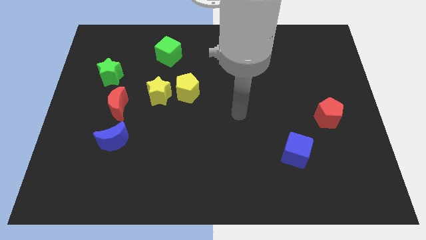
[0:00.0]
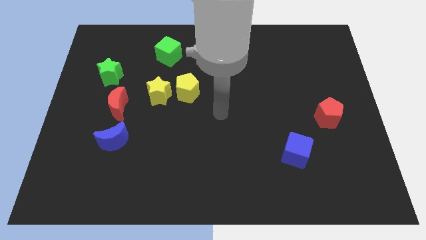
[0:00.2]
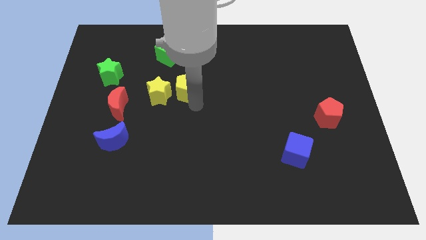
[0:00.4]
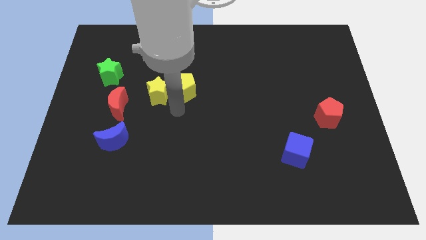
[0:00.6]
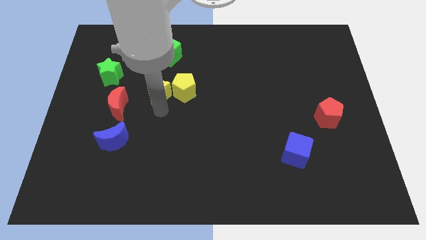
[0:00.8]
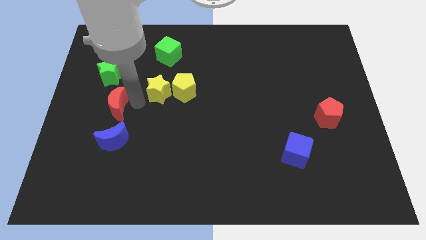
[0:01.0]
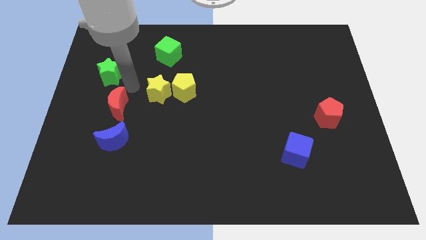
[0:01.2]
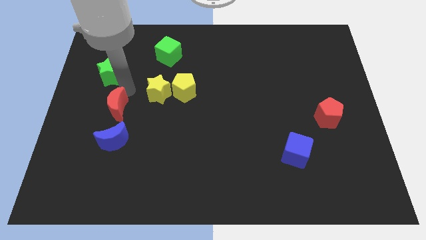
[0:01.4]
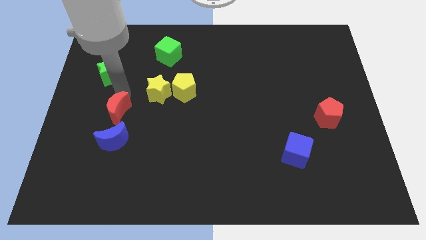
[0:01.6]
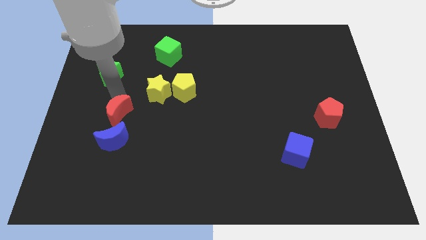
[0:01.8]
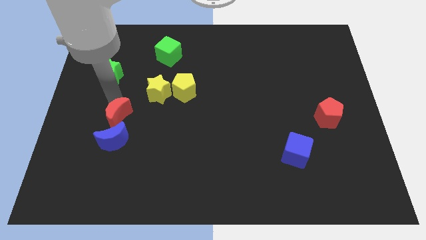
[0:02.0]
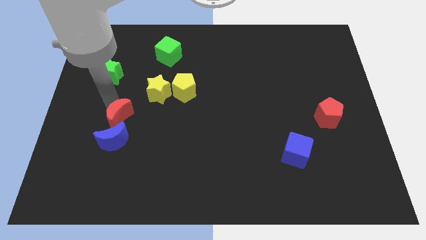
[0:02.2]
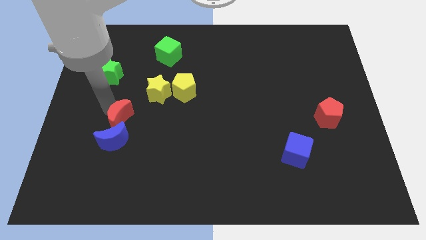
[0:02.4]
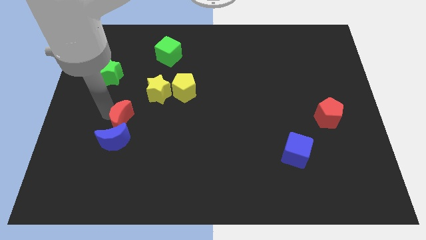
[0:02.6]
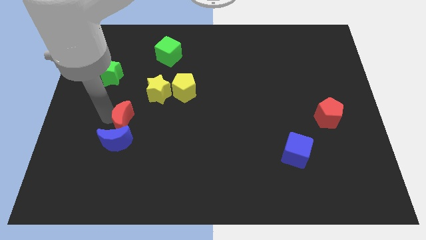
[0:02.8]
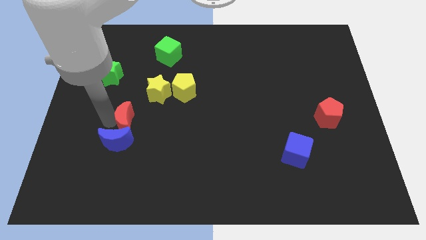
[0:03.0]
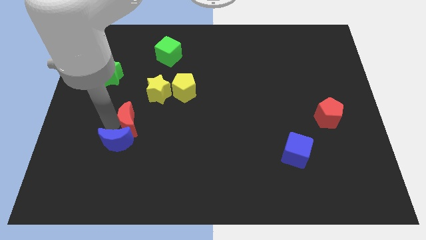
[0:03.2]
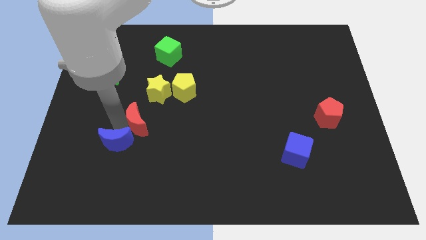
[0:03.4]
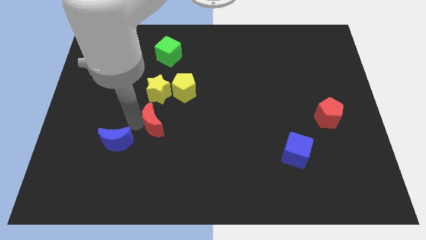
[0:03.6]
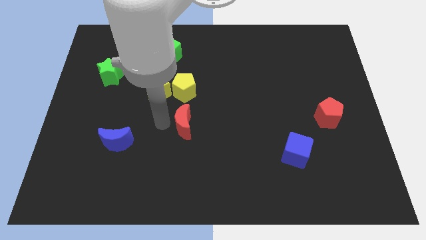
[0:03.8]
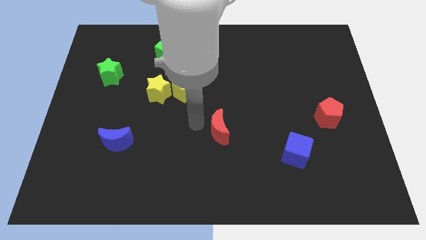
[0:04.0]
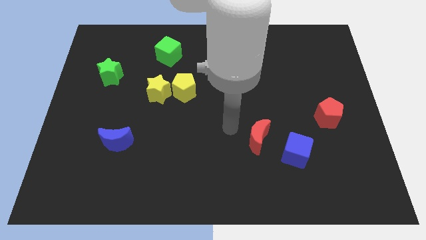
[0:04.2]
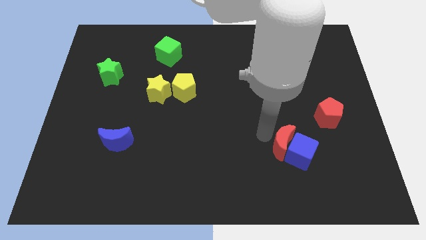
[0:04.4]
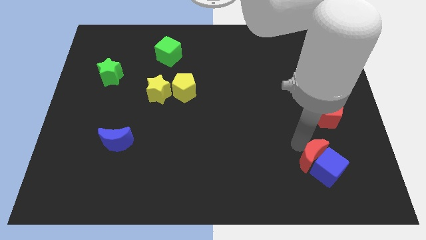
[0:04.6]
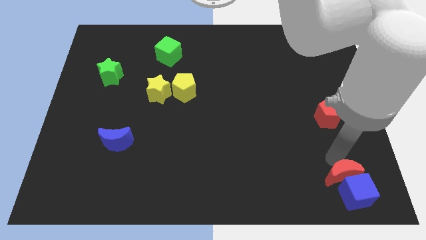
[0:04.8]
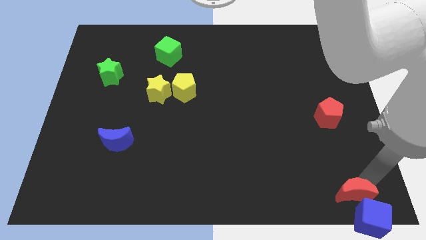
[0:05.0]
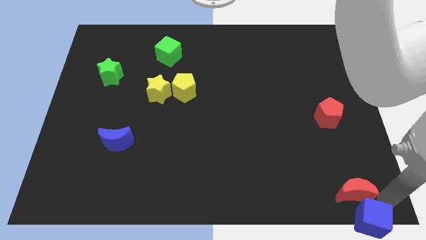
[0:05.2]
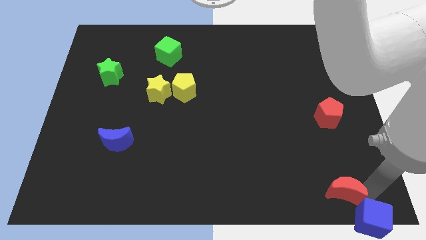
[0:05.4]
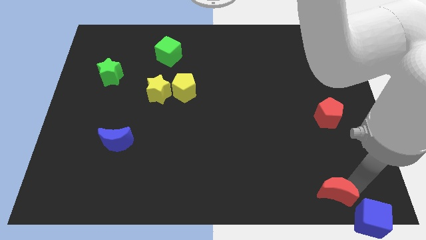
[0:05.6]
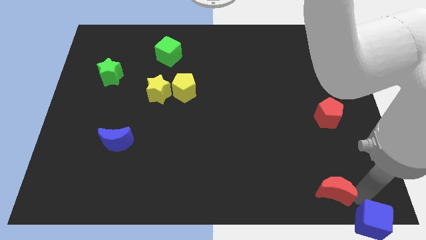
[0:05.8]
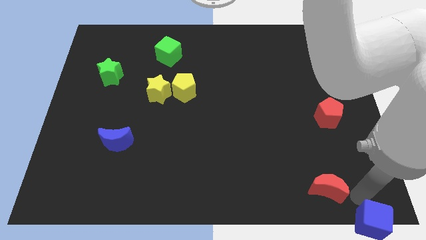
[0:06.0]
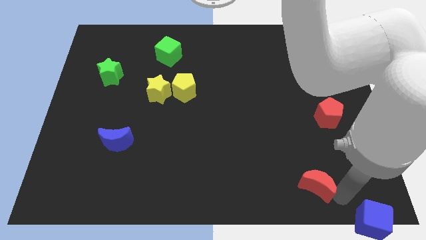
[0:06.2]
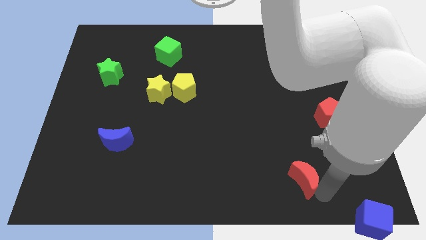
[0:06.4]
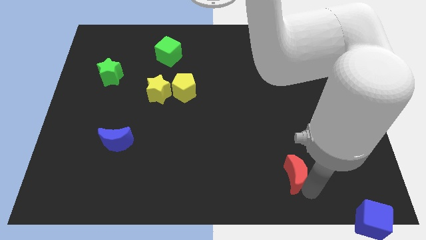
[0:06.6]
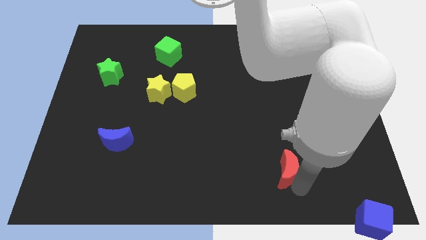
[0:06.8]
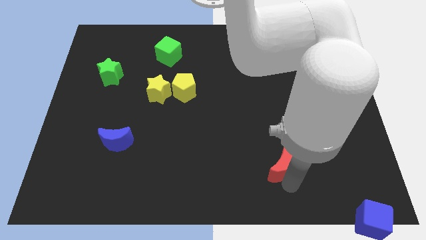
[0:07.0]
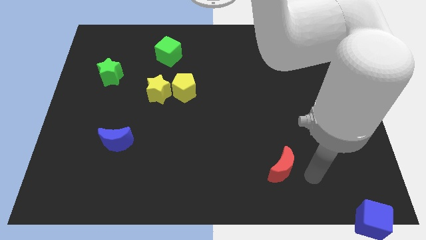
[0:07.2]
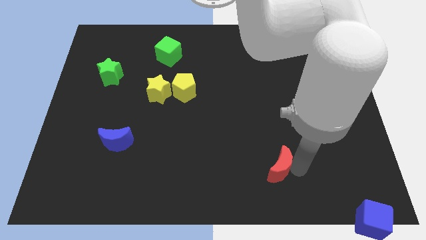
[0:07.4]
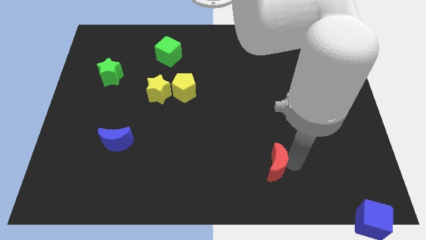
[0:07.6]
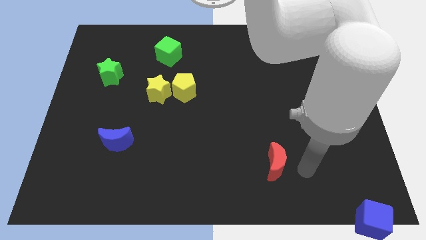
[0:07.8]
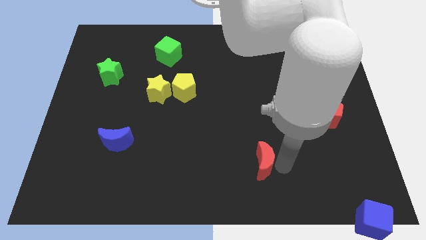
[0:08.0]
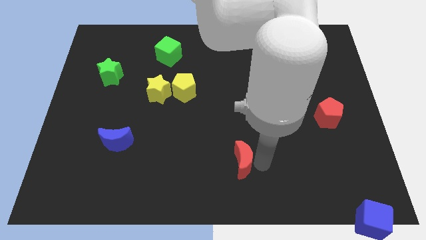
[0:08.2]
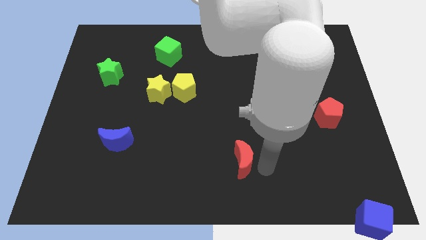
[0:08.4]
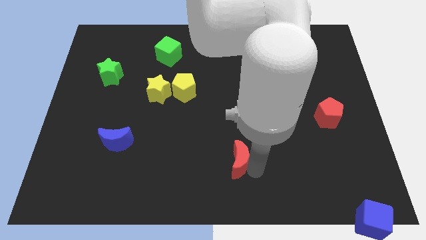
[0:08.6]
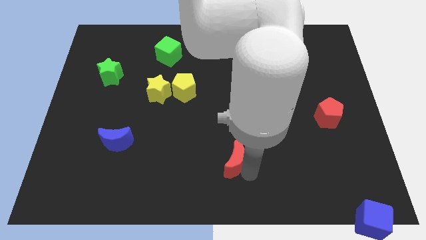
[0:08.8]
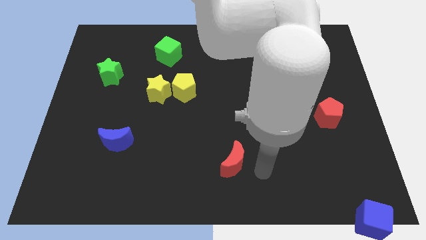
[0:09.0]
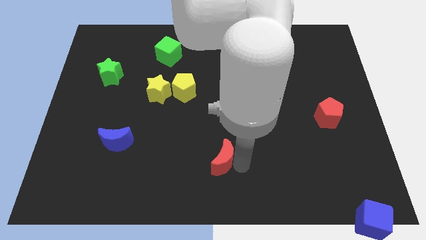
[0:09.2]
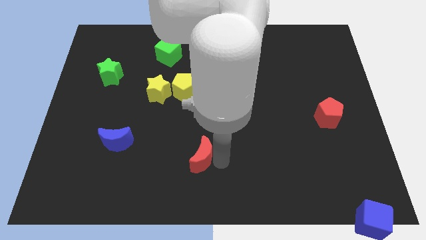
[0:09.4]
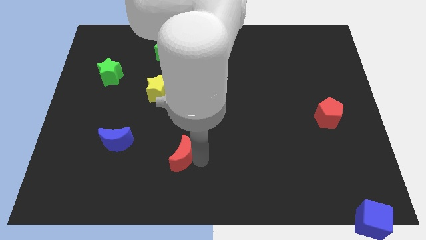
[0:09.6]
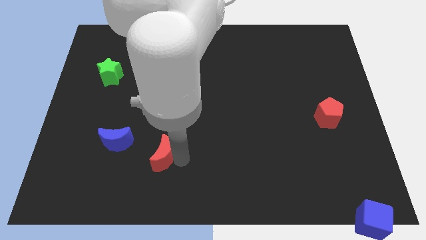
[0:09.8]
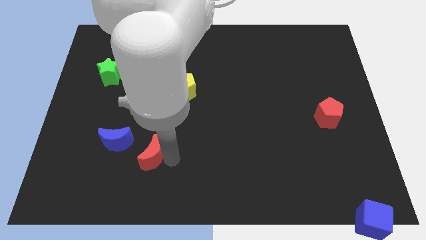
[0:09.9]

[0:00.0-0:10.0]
move the red moon downwards a bit

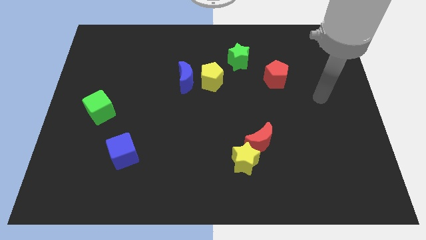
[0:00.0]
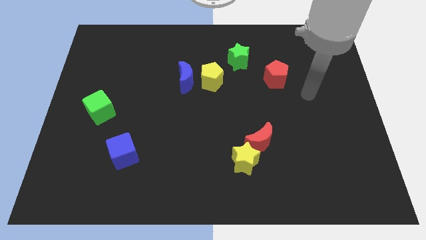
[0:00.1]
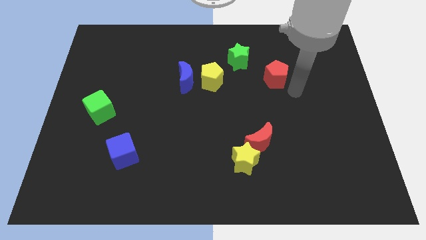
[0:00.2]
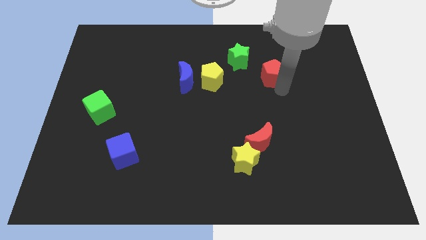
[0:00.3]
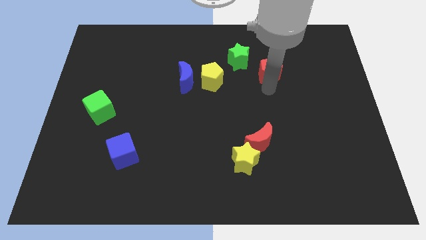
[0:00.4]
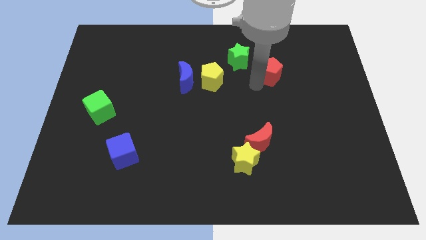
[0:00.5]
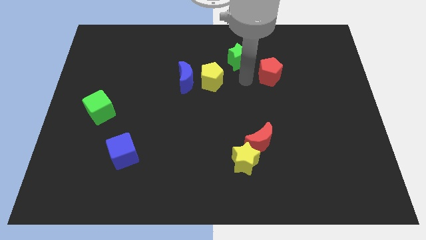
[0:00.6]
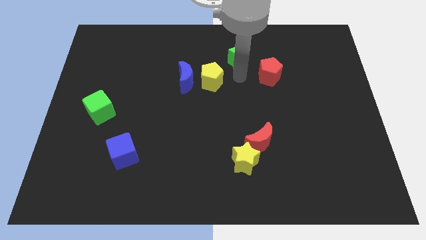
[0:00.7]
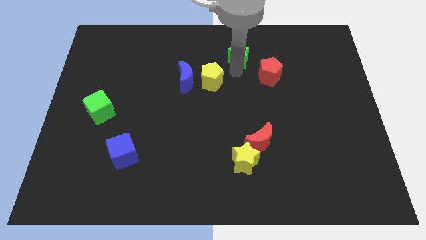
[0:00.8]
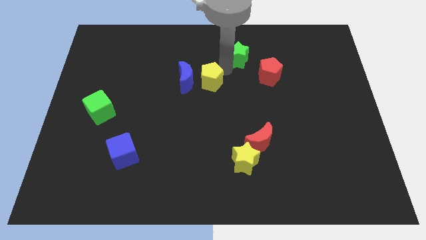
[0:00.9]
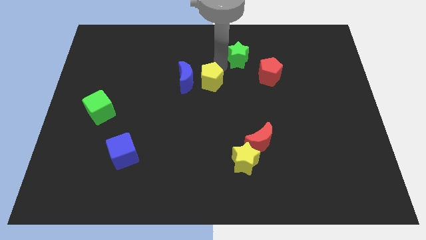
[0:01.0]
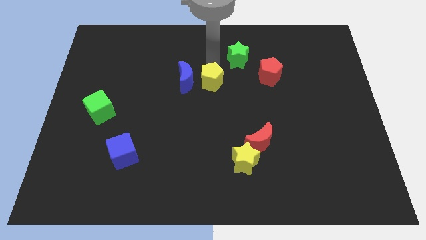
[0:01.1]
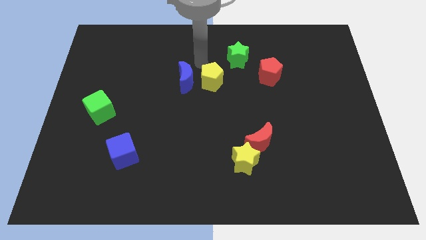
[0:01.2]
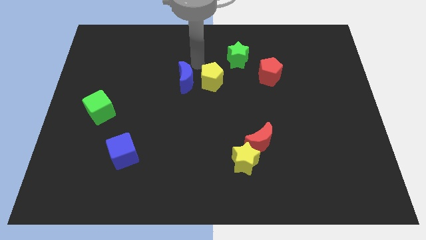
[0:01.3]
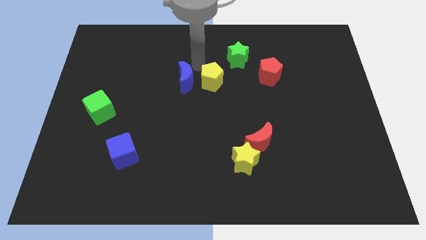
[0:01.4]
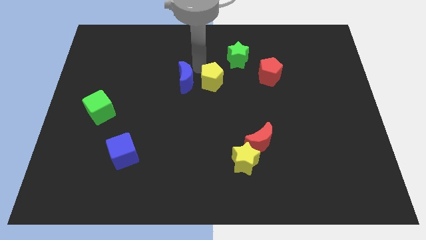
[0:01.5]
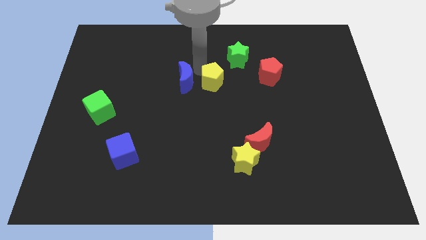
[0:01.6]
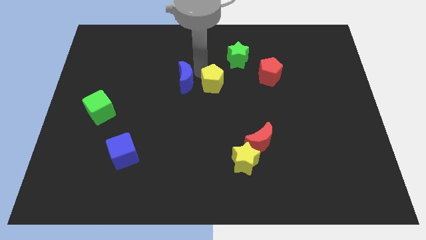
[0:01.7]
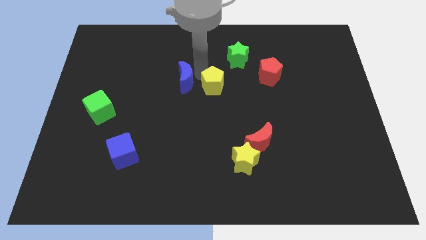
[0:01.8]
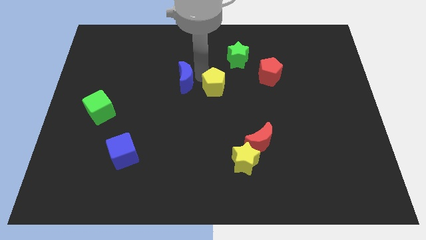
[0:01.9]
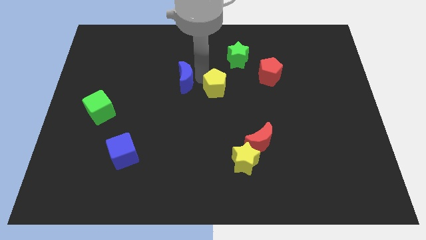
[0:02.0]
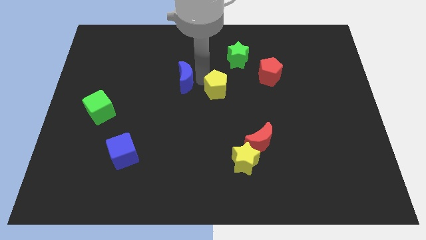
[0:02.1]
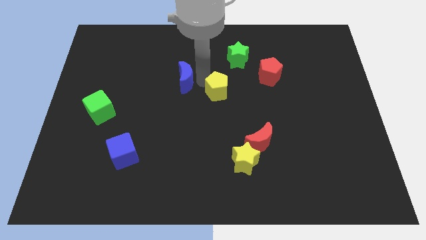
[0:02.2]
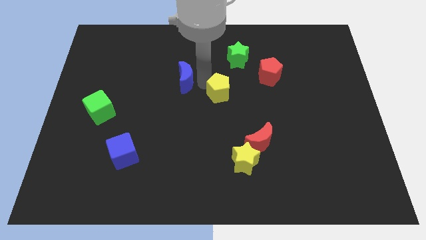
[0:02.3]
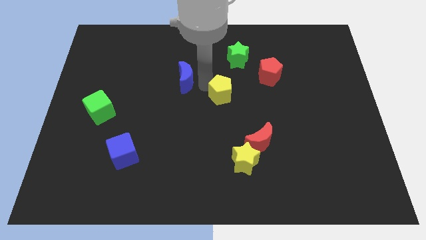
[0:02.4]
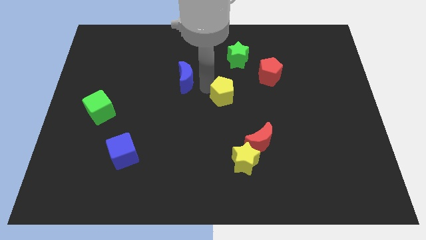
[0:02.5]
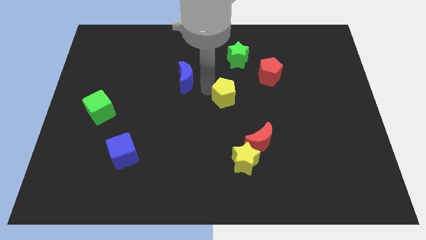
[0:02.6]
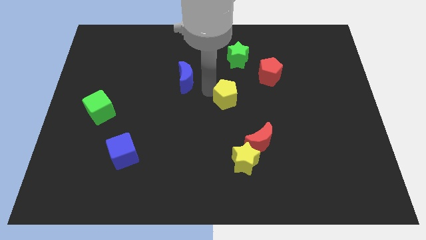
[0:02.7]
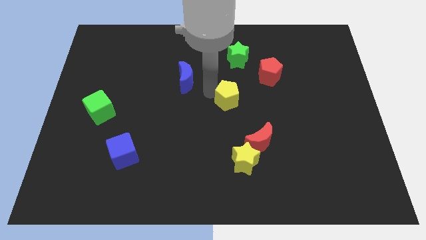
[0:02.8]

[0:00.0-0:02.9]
push the yellow pentagon diagonally down and right slightly
